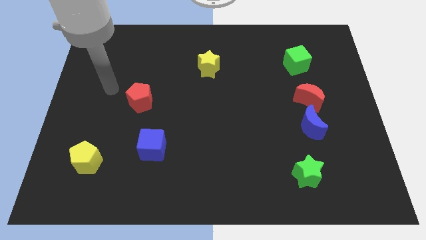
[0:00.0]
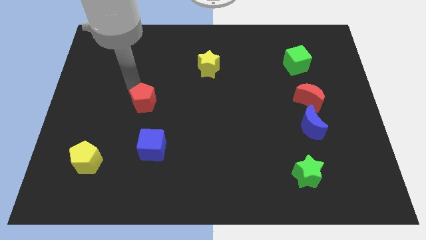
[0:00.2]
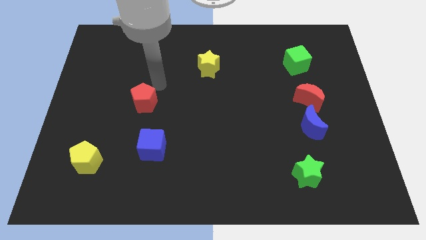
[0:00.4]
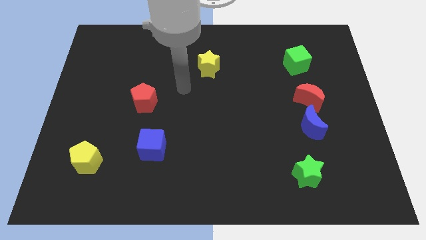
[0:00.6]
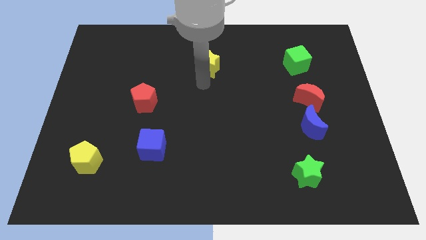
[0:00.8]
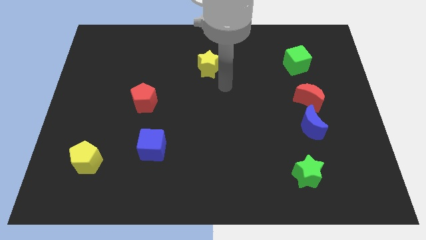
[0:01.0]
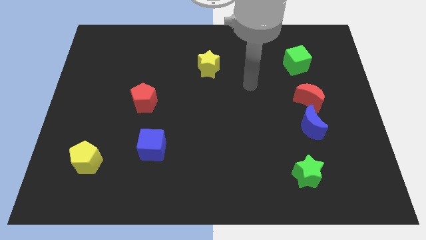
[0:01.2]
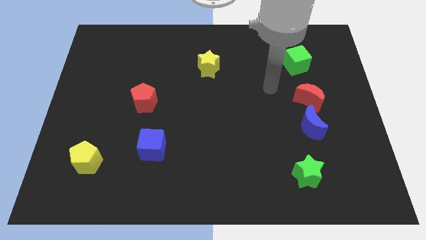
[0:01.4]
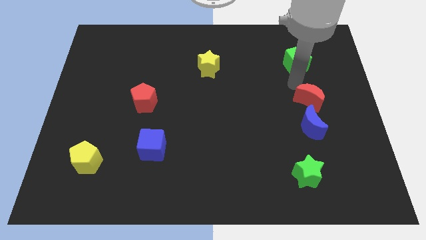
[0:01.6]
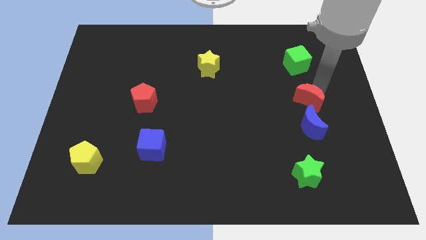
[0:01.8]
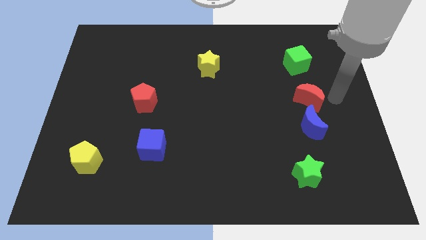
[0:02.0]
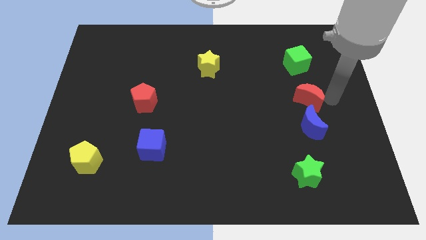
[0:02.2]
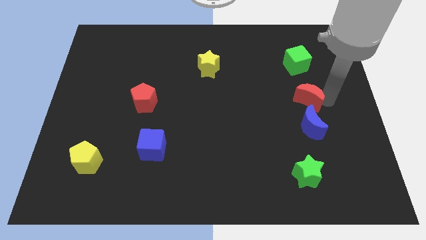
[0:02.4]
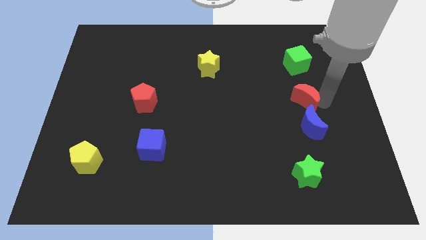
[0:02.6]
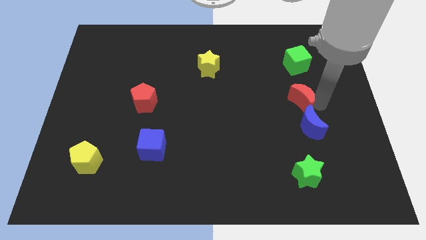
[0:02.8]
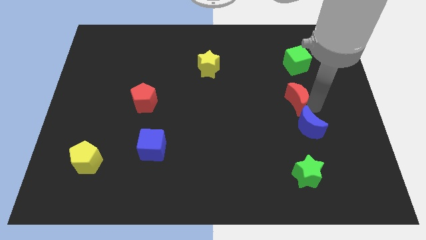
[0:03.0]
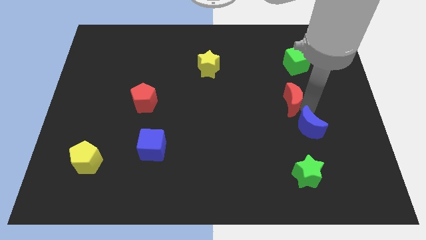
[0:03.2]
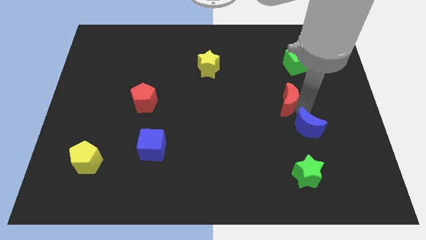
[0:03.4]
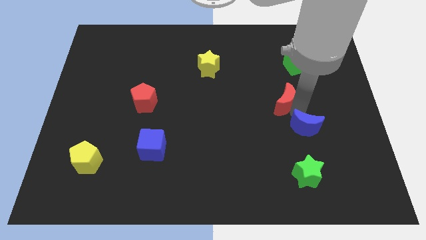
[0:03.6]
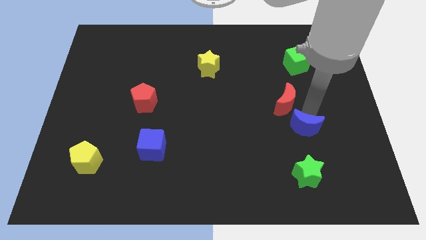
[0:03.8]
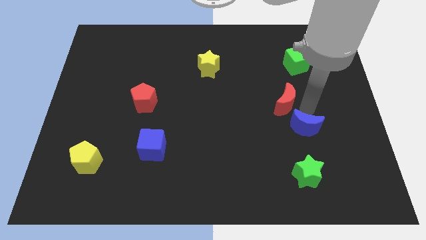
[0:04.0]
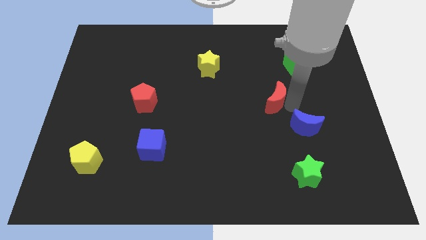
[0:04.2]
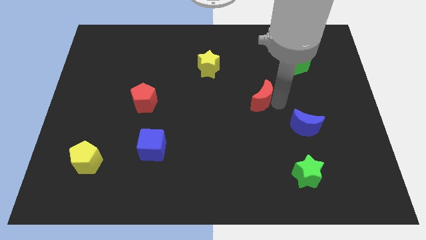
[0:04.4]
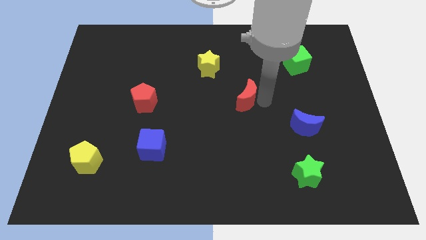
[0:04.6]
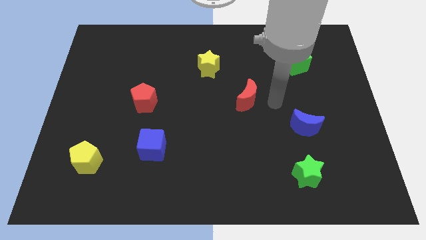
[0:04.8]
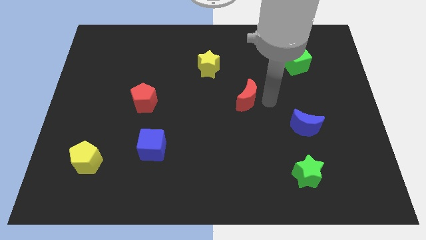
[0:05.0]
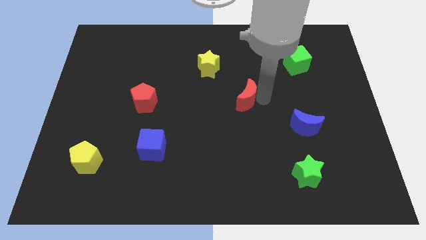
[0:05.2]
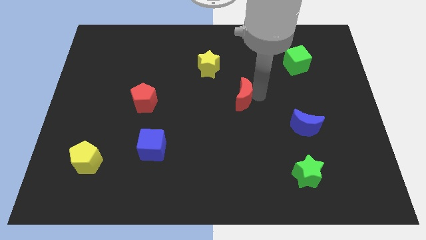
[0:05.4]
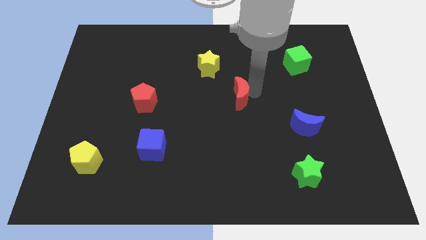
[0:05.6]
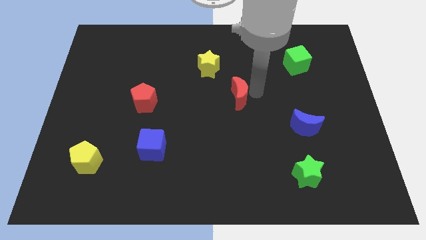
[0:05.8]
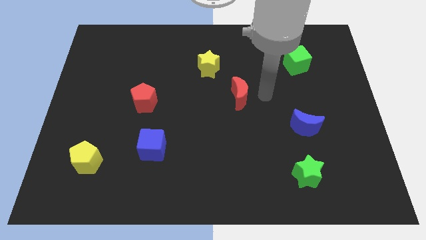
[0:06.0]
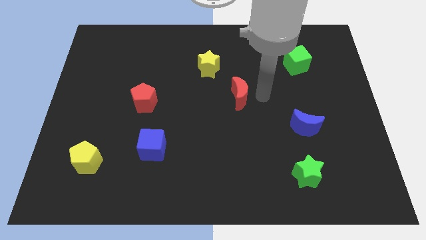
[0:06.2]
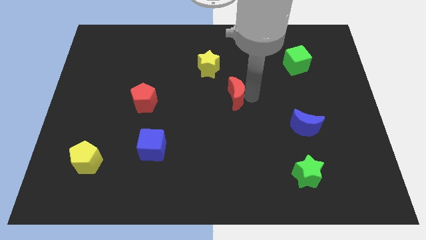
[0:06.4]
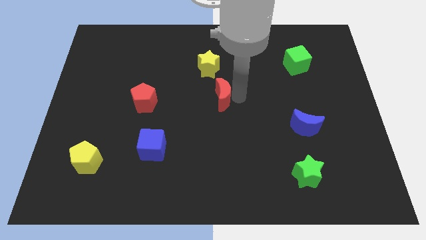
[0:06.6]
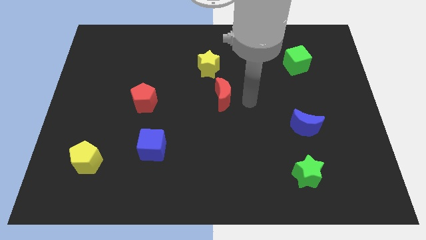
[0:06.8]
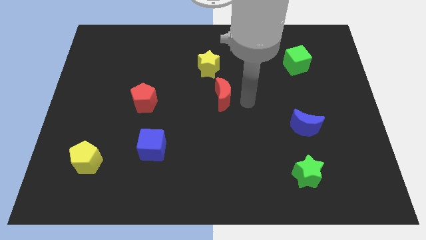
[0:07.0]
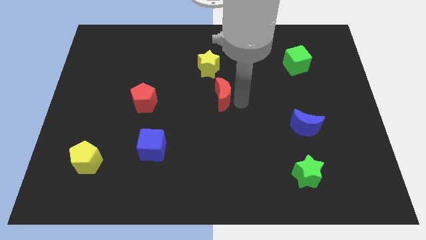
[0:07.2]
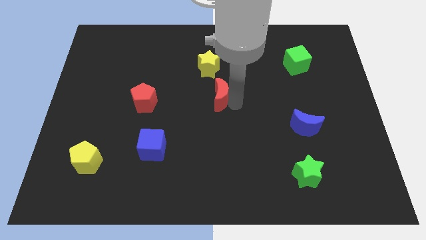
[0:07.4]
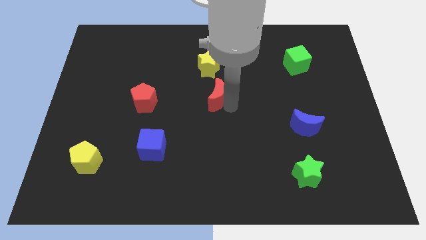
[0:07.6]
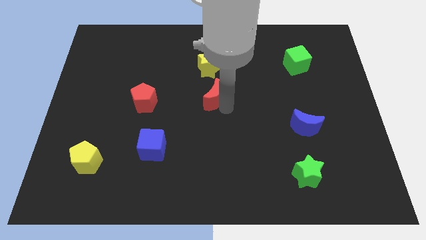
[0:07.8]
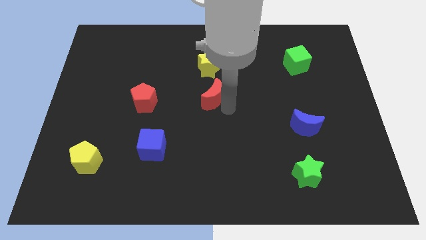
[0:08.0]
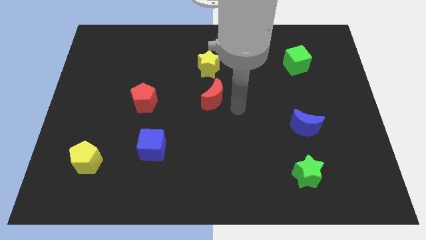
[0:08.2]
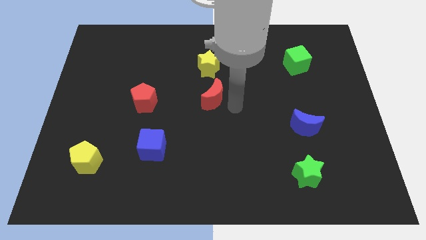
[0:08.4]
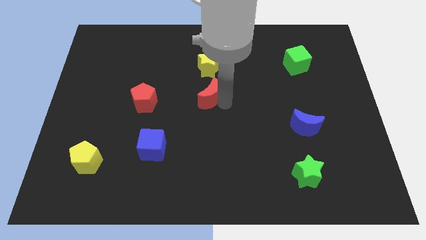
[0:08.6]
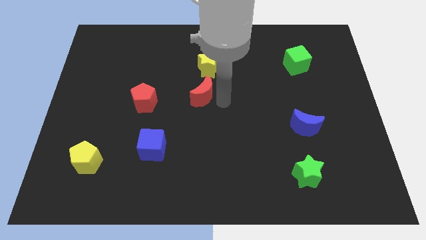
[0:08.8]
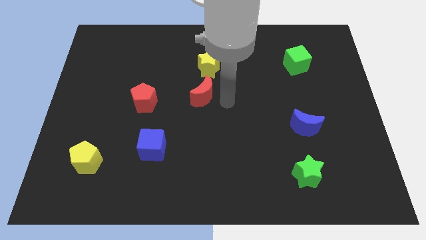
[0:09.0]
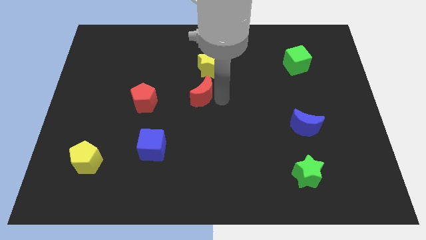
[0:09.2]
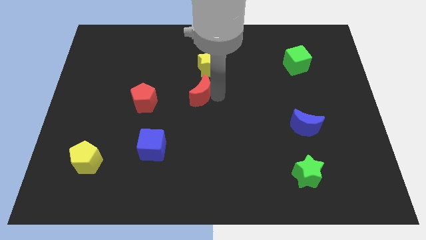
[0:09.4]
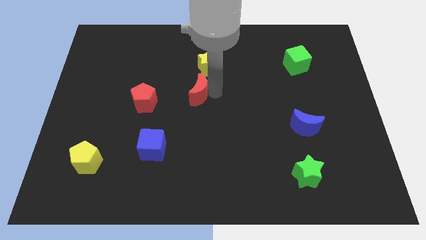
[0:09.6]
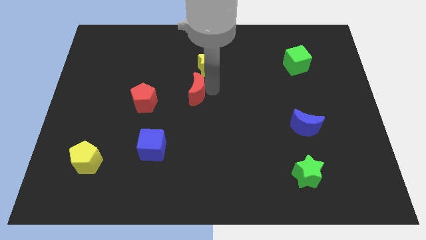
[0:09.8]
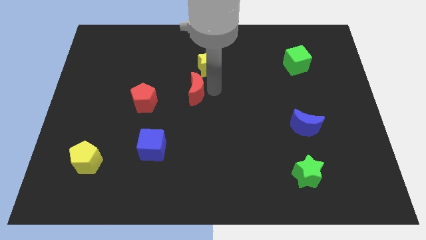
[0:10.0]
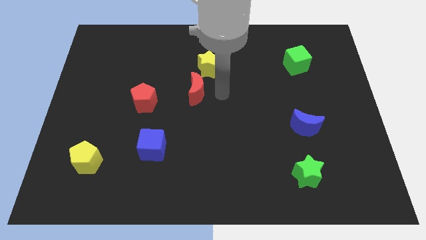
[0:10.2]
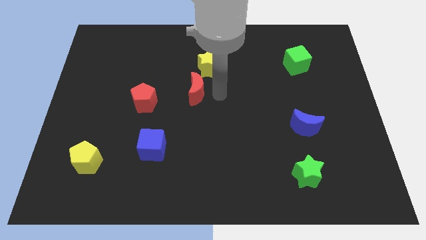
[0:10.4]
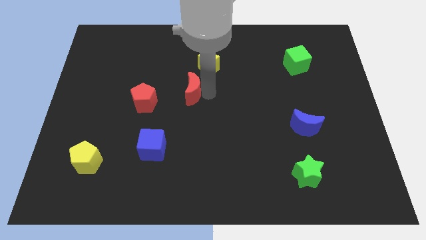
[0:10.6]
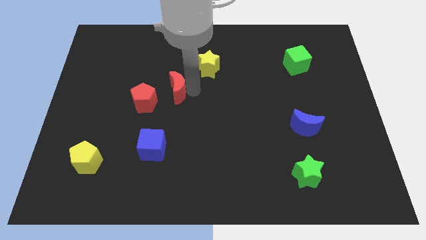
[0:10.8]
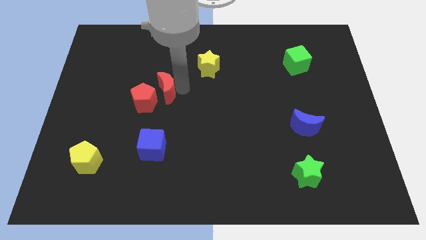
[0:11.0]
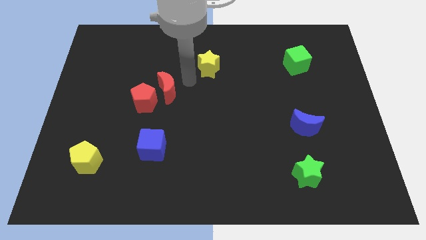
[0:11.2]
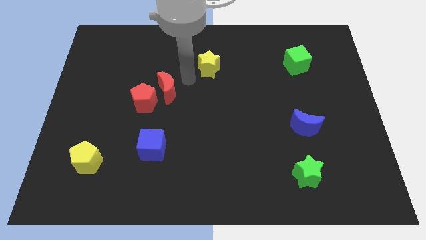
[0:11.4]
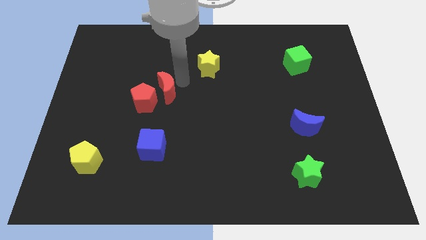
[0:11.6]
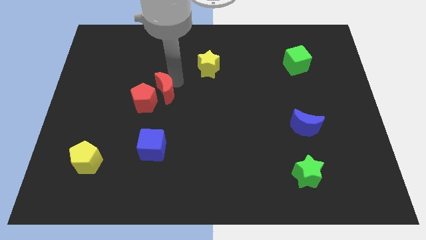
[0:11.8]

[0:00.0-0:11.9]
slide the red moon towards the red pentagon
